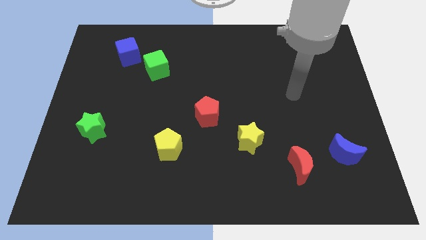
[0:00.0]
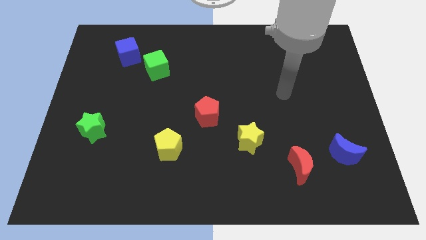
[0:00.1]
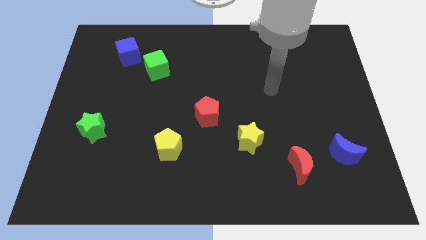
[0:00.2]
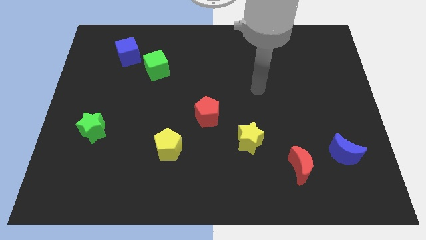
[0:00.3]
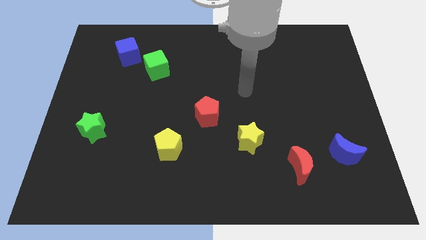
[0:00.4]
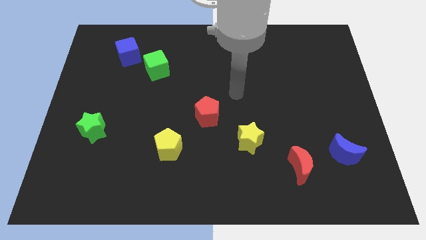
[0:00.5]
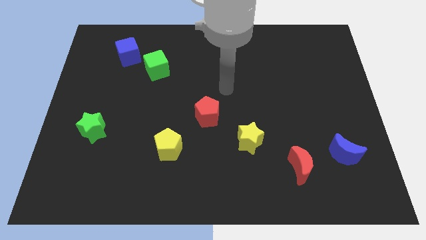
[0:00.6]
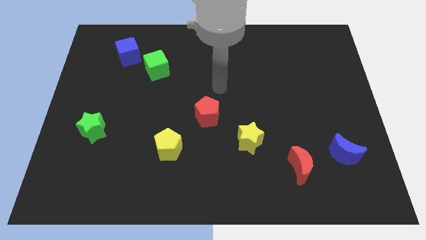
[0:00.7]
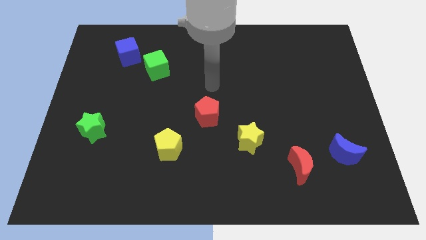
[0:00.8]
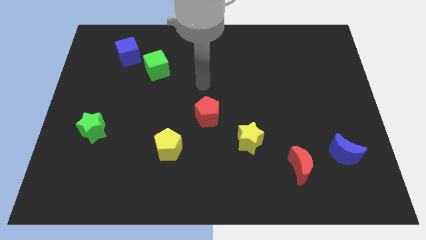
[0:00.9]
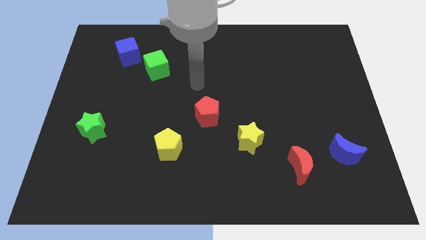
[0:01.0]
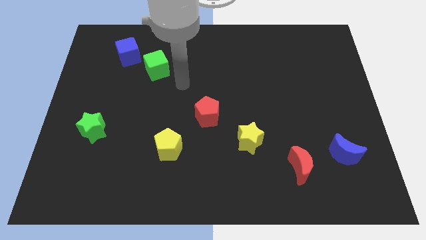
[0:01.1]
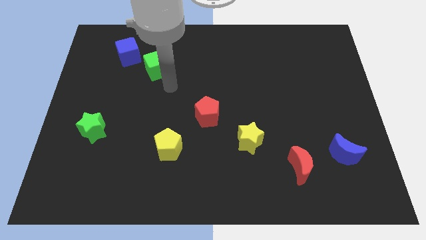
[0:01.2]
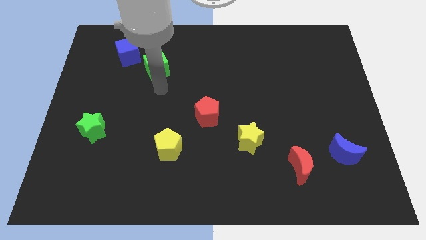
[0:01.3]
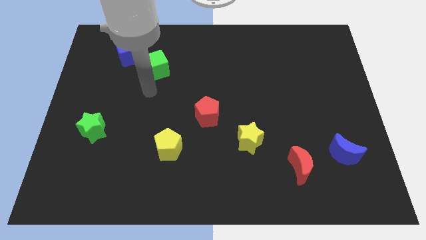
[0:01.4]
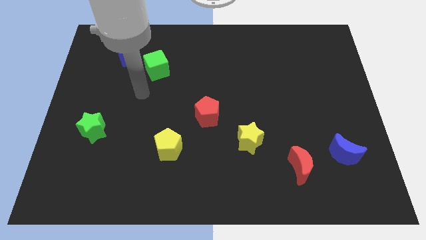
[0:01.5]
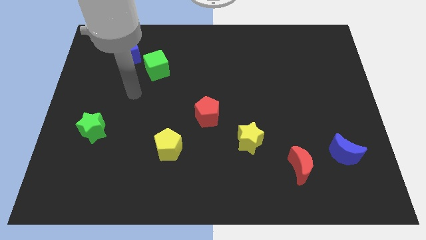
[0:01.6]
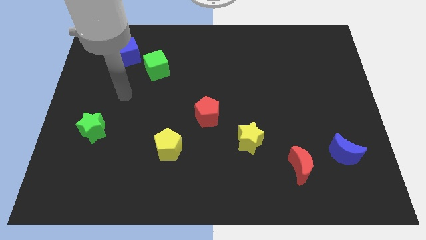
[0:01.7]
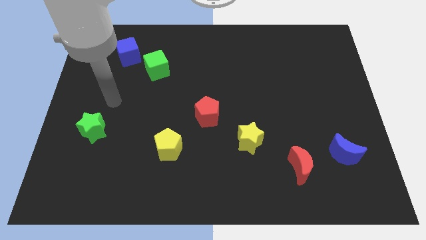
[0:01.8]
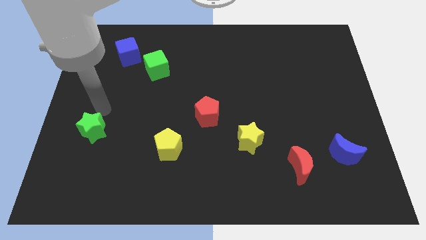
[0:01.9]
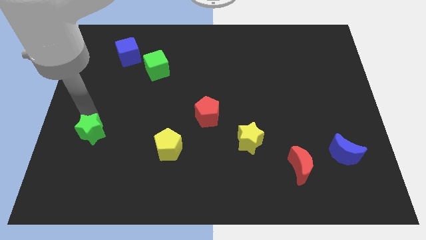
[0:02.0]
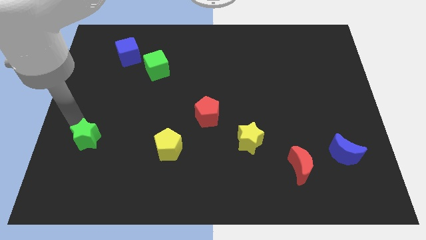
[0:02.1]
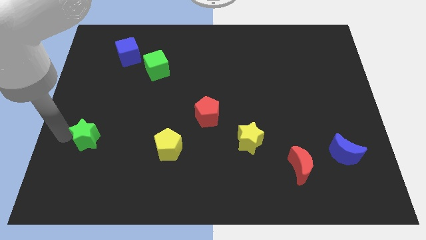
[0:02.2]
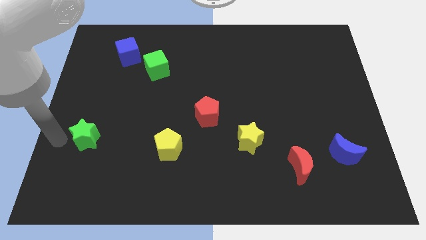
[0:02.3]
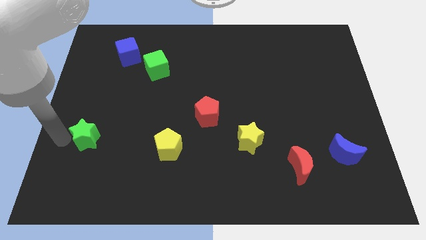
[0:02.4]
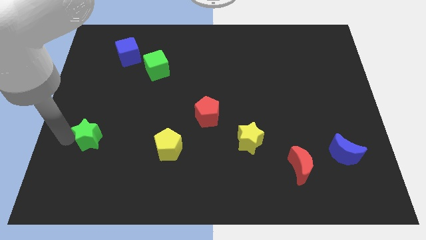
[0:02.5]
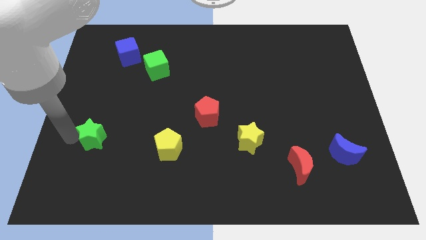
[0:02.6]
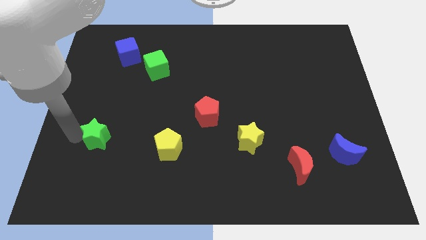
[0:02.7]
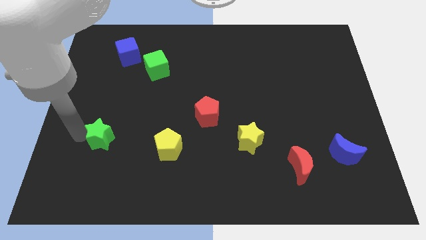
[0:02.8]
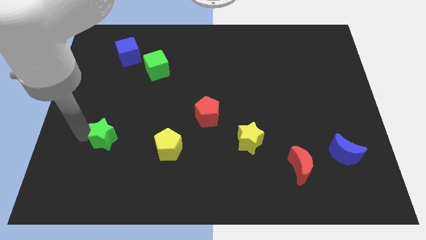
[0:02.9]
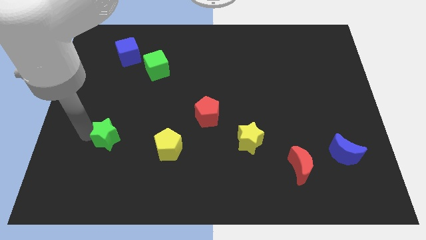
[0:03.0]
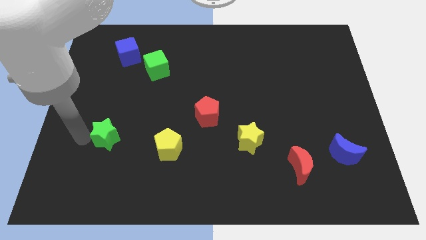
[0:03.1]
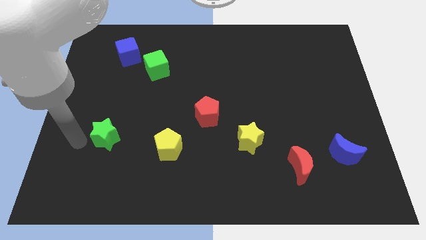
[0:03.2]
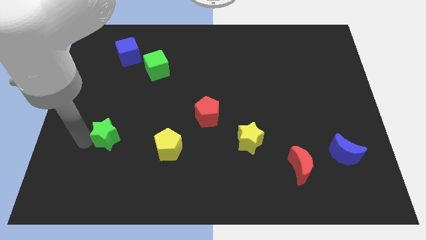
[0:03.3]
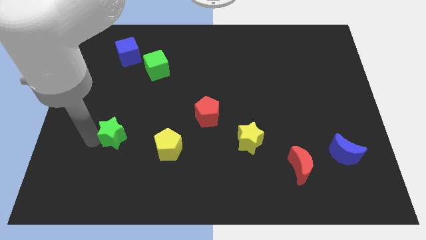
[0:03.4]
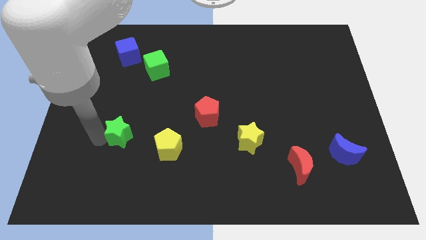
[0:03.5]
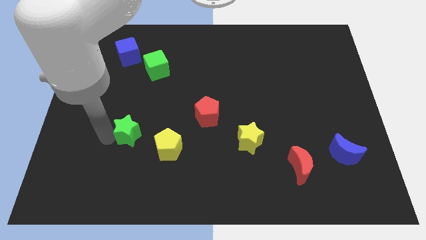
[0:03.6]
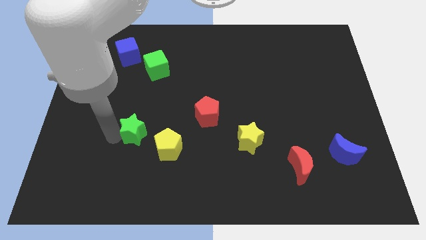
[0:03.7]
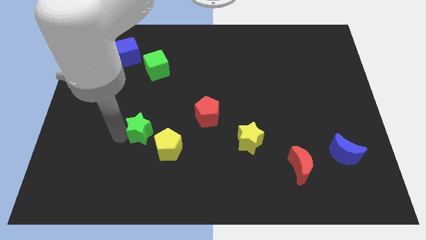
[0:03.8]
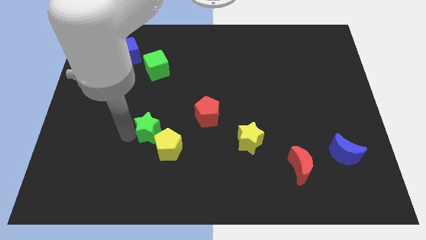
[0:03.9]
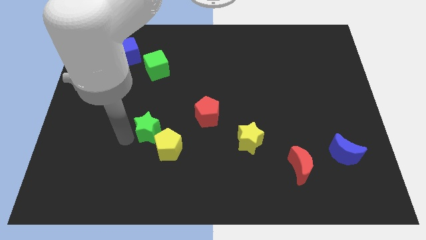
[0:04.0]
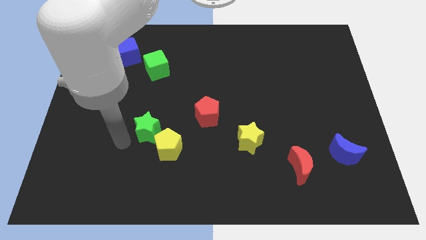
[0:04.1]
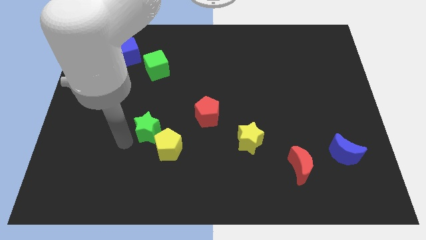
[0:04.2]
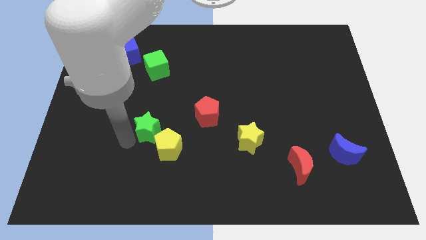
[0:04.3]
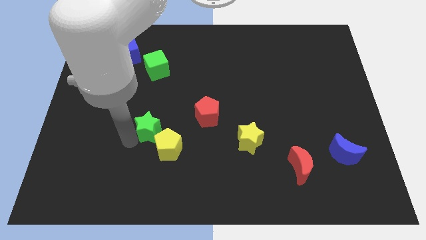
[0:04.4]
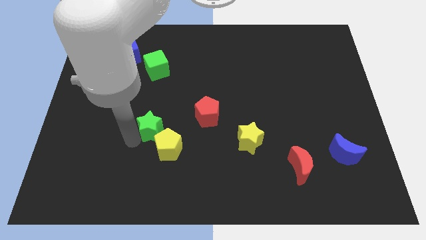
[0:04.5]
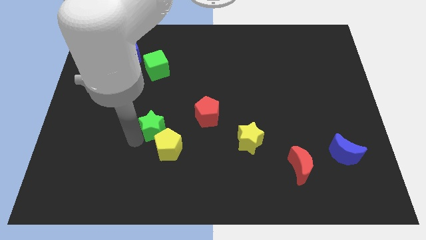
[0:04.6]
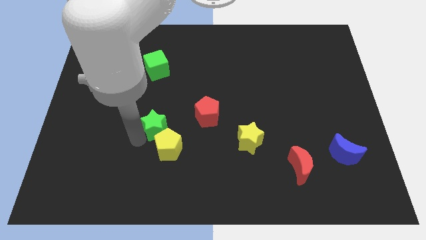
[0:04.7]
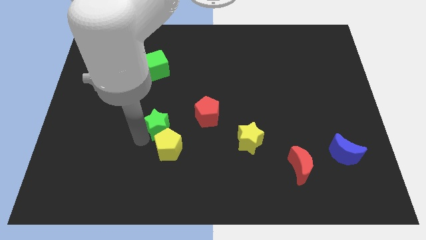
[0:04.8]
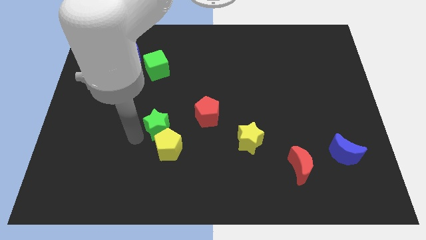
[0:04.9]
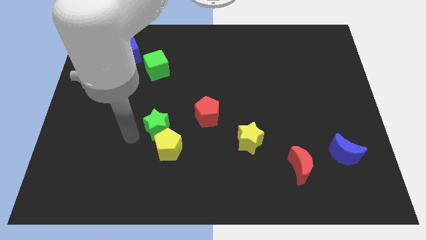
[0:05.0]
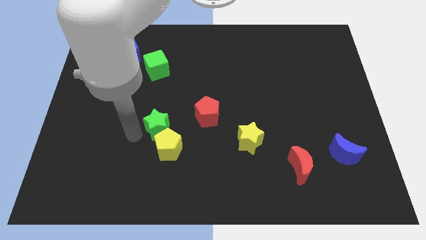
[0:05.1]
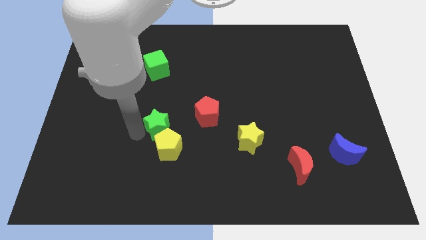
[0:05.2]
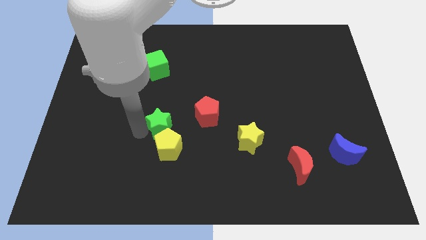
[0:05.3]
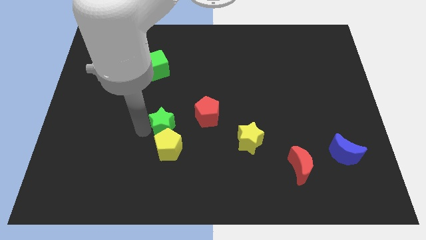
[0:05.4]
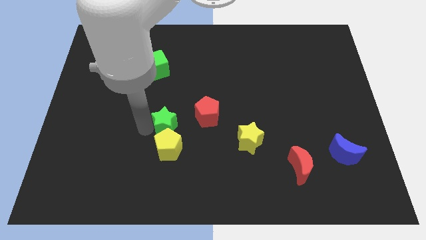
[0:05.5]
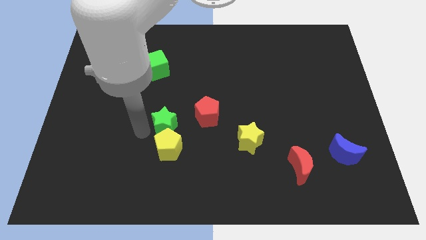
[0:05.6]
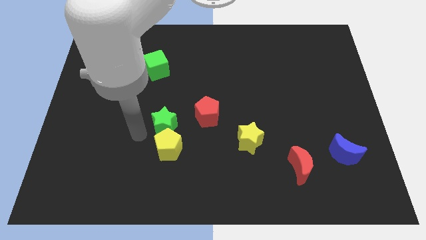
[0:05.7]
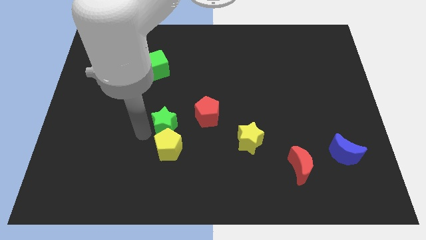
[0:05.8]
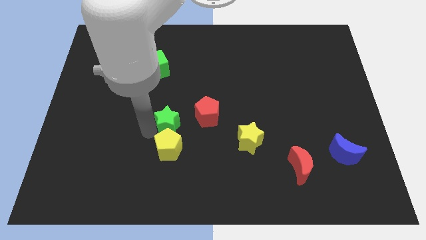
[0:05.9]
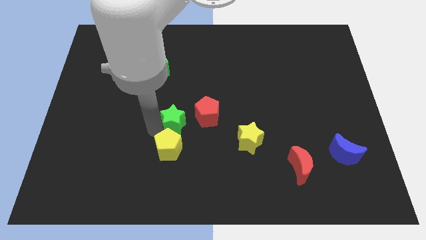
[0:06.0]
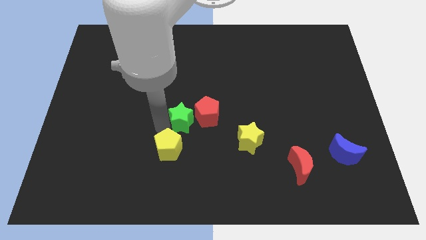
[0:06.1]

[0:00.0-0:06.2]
slide the green star next to the red pentagon

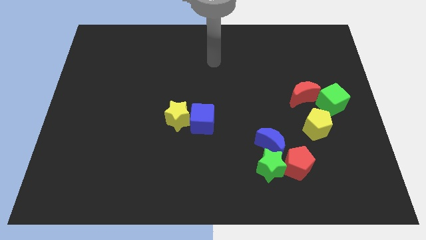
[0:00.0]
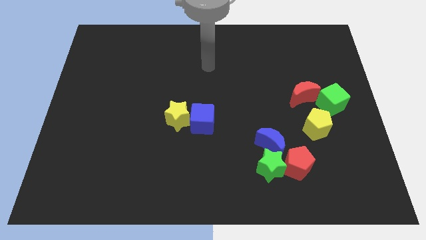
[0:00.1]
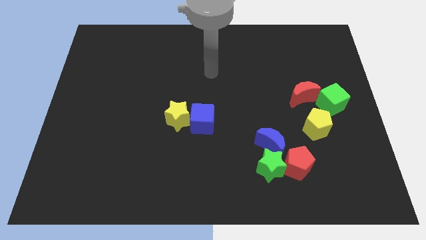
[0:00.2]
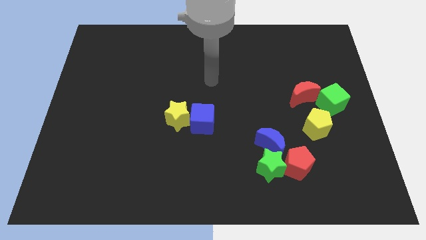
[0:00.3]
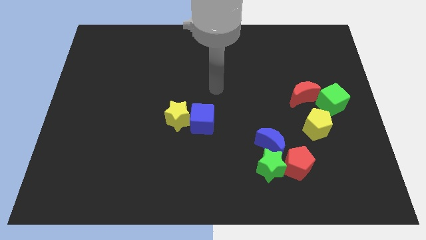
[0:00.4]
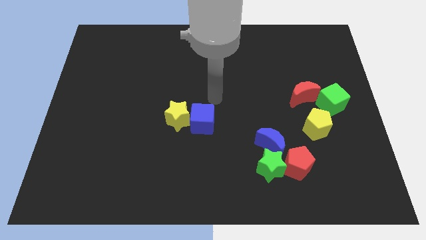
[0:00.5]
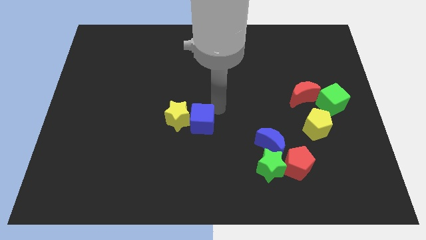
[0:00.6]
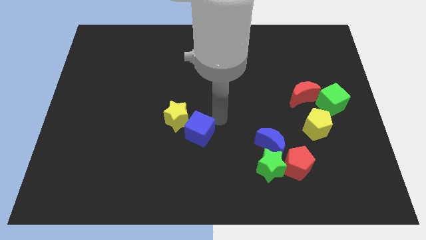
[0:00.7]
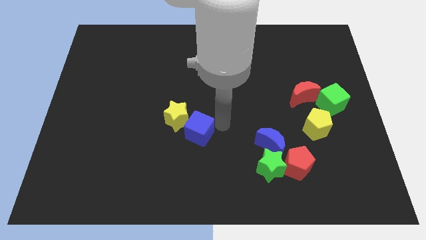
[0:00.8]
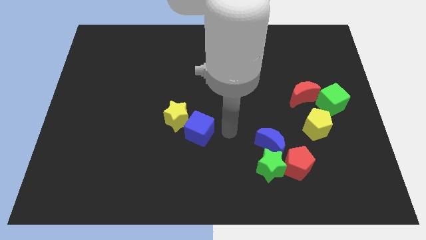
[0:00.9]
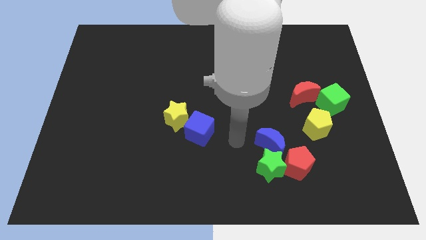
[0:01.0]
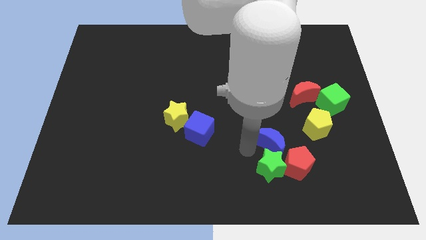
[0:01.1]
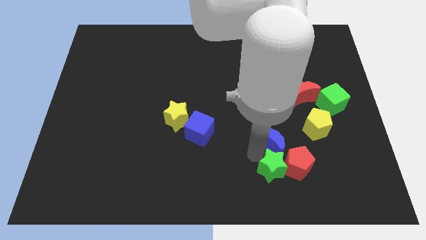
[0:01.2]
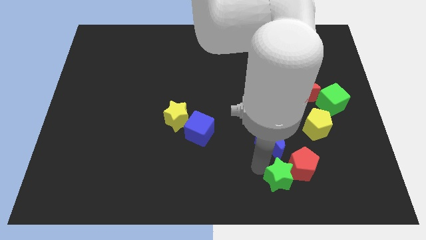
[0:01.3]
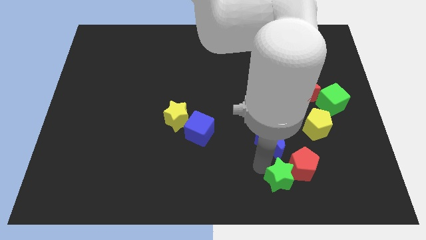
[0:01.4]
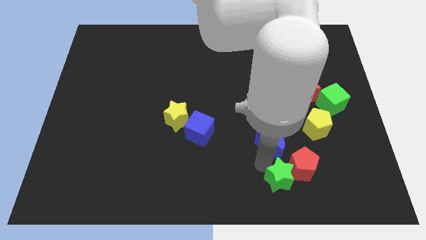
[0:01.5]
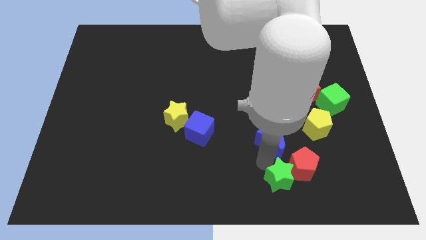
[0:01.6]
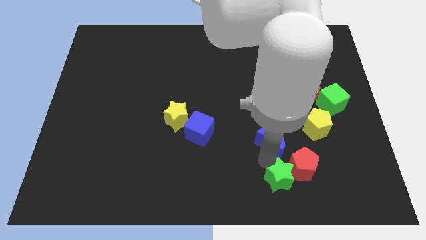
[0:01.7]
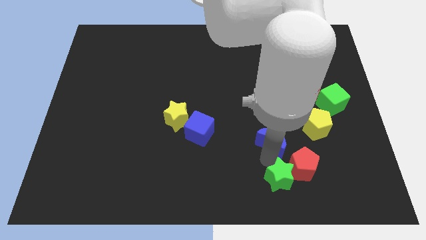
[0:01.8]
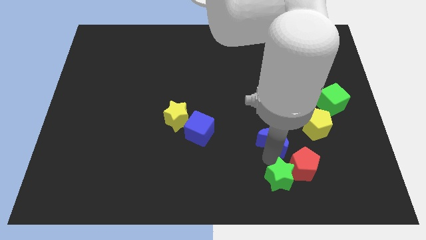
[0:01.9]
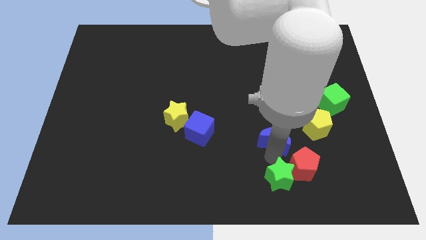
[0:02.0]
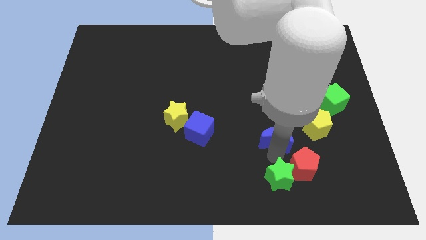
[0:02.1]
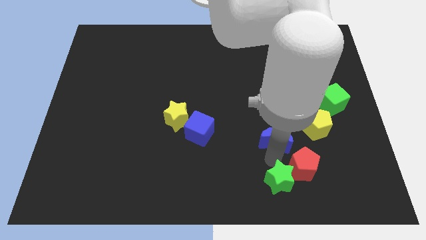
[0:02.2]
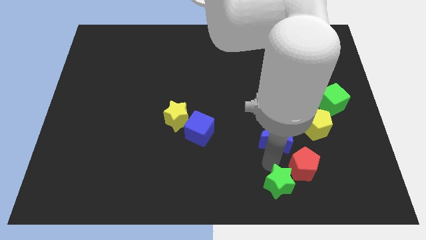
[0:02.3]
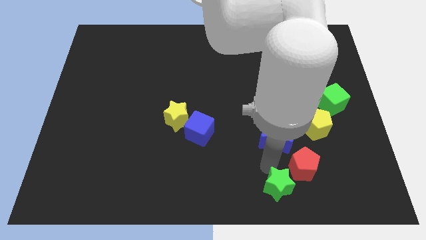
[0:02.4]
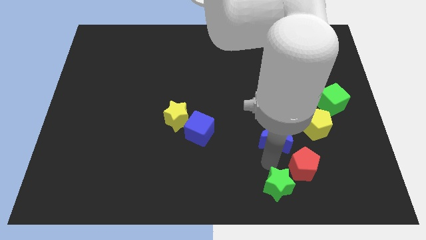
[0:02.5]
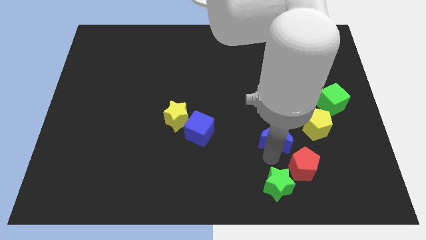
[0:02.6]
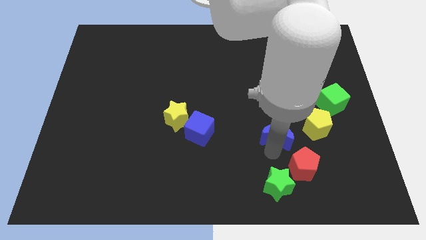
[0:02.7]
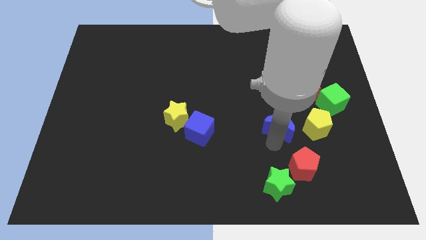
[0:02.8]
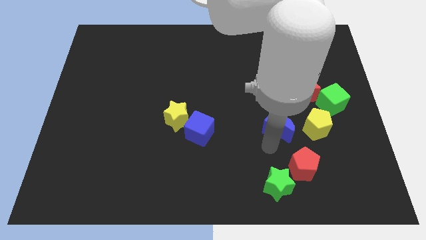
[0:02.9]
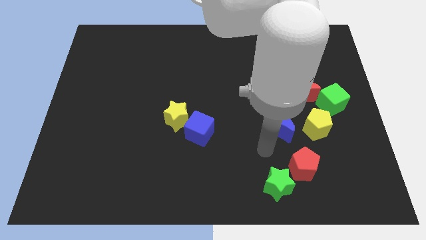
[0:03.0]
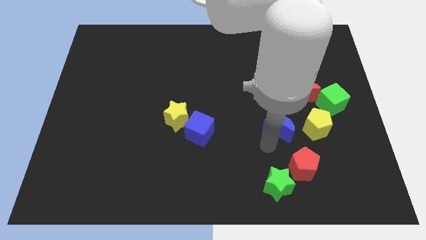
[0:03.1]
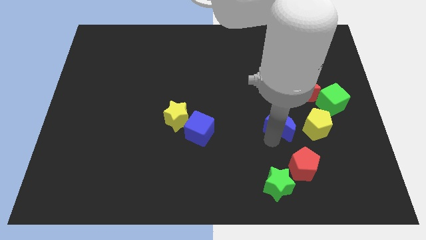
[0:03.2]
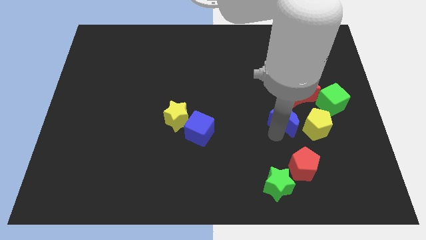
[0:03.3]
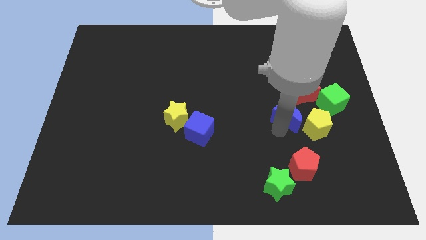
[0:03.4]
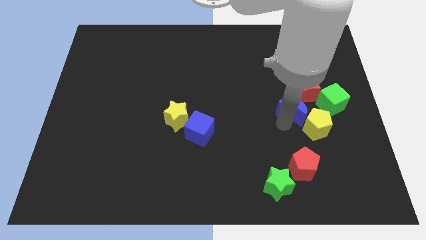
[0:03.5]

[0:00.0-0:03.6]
put the blue moon towards the red moon
